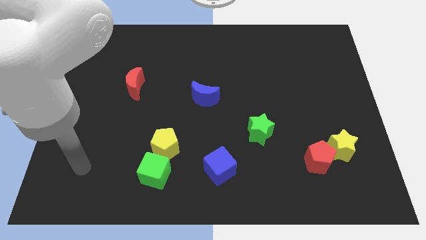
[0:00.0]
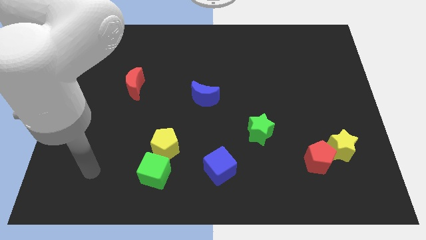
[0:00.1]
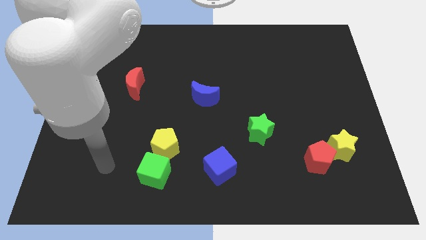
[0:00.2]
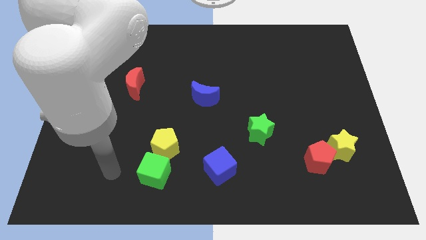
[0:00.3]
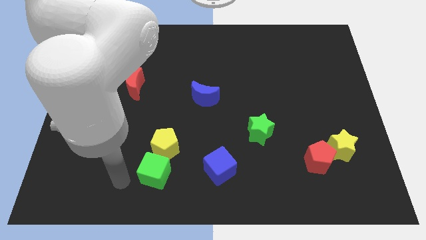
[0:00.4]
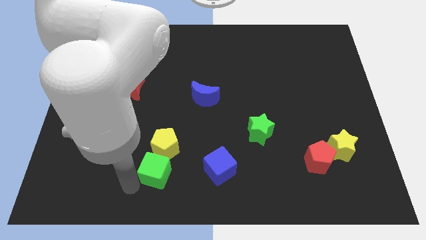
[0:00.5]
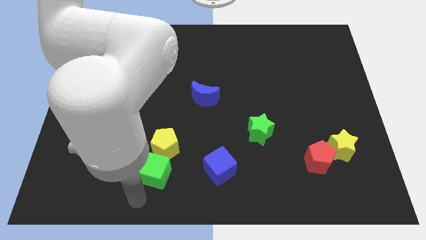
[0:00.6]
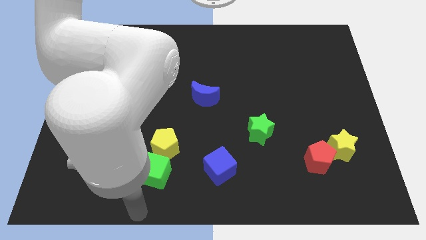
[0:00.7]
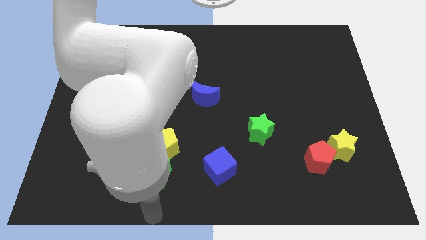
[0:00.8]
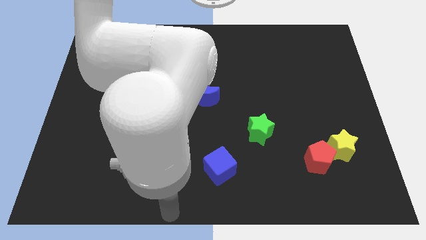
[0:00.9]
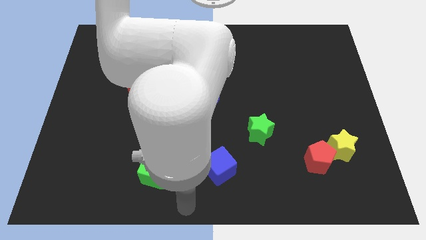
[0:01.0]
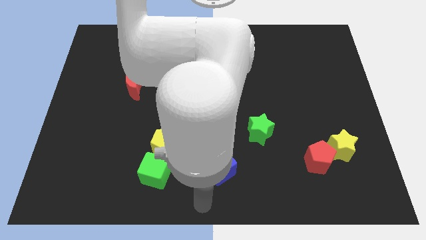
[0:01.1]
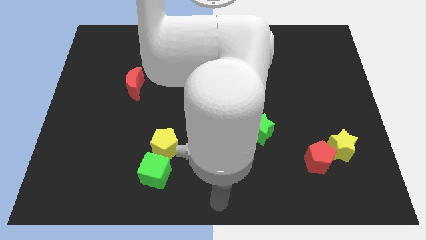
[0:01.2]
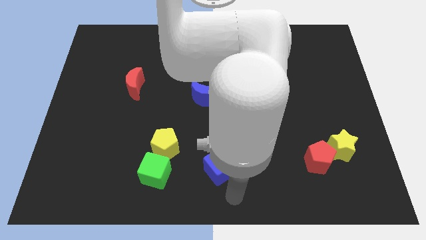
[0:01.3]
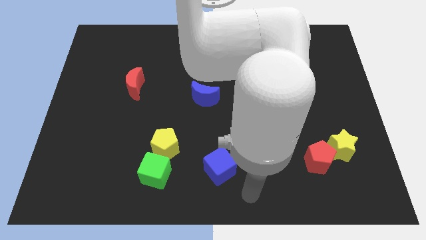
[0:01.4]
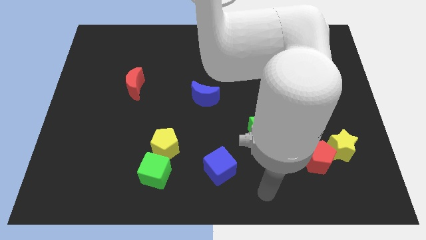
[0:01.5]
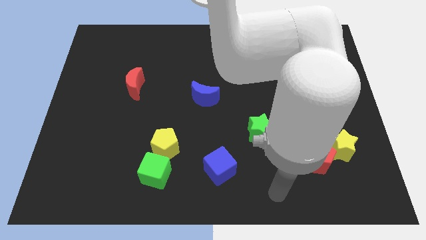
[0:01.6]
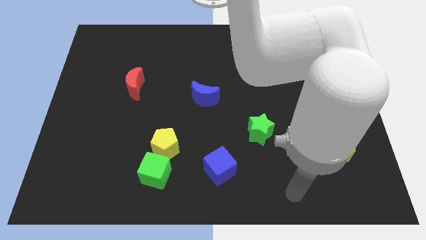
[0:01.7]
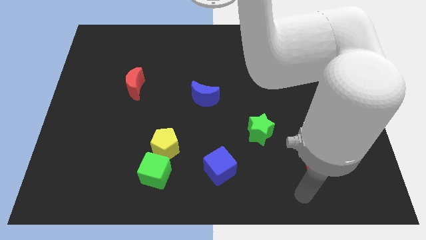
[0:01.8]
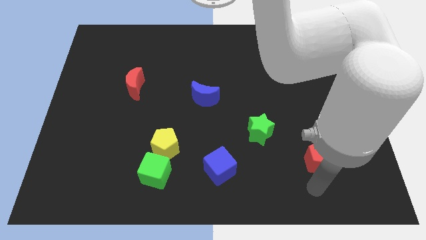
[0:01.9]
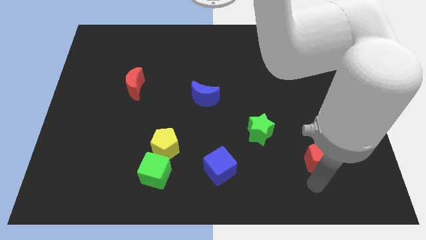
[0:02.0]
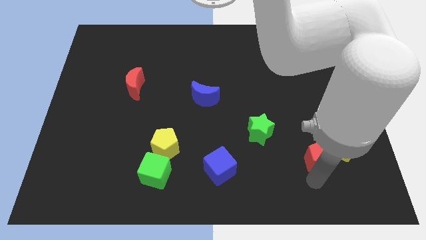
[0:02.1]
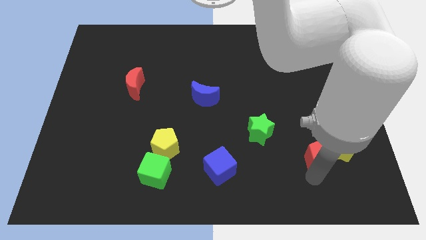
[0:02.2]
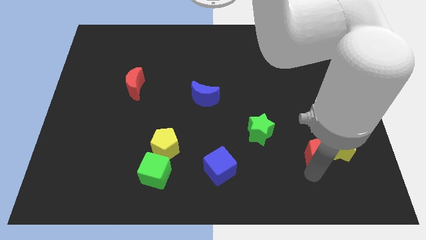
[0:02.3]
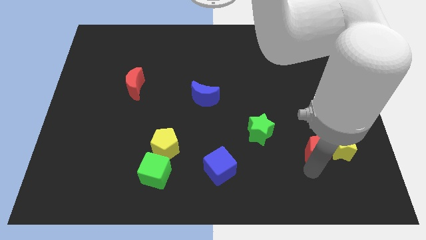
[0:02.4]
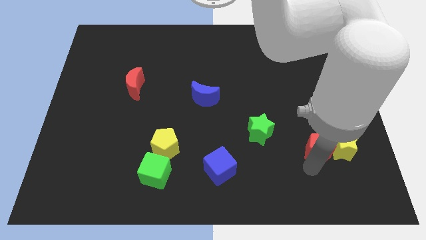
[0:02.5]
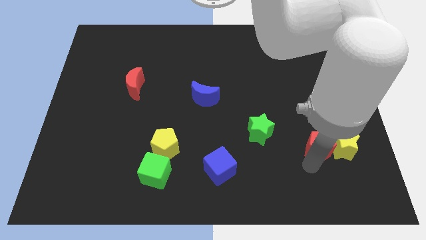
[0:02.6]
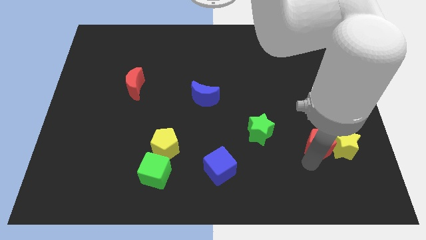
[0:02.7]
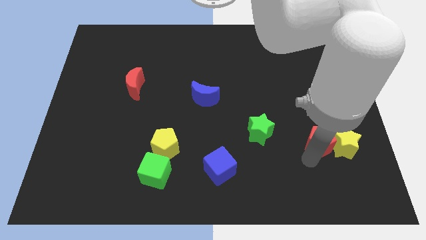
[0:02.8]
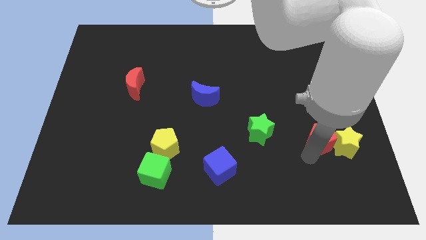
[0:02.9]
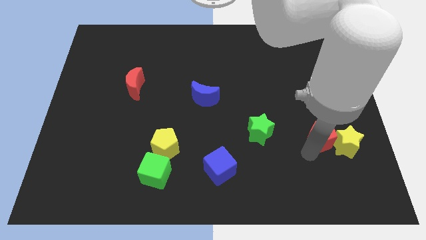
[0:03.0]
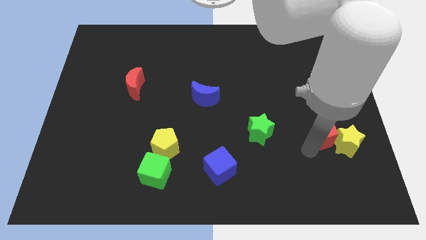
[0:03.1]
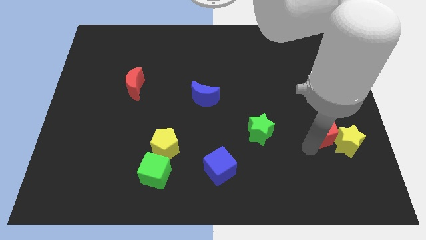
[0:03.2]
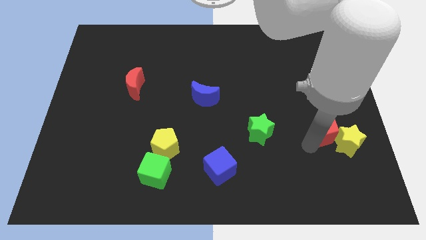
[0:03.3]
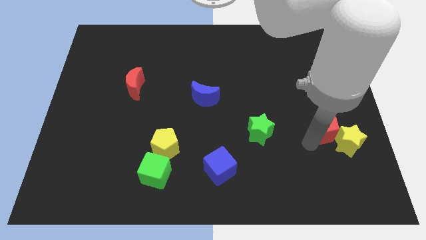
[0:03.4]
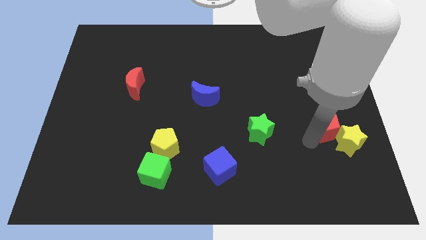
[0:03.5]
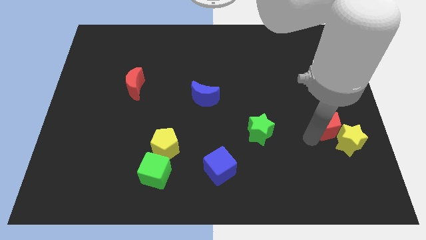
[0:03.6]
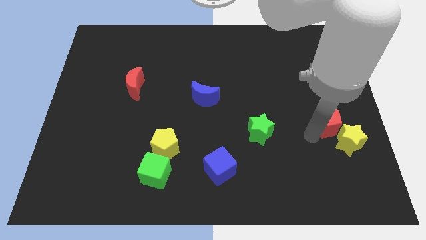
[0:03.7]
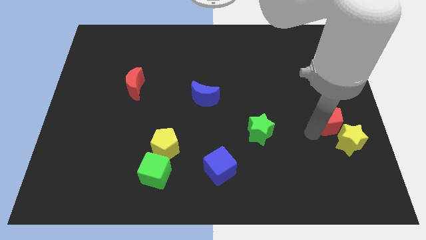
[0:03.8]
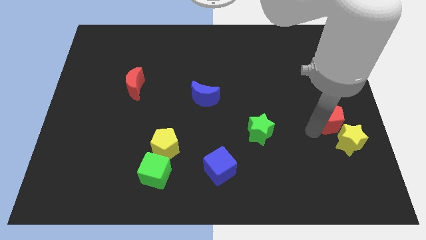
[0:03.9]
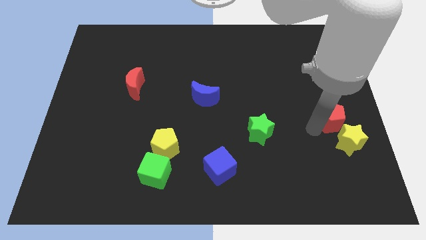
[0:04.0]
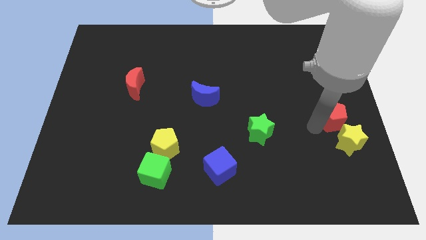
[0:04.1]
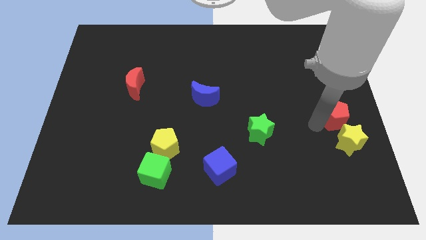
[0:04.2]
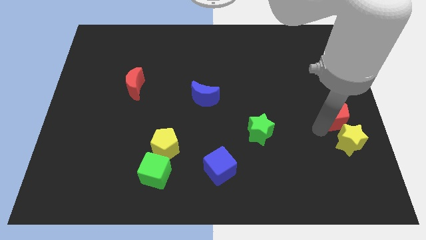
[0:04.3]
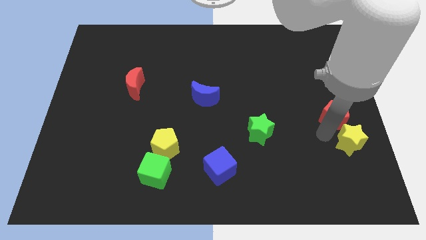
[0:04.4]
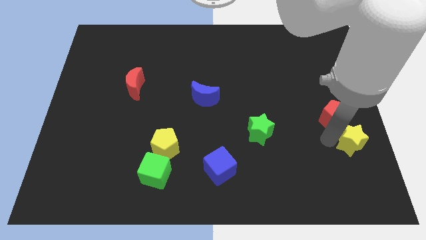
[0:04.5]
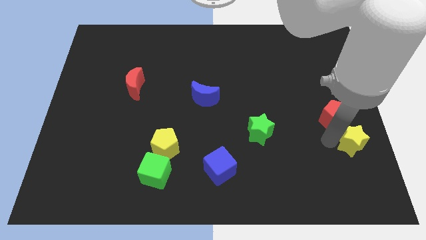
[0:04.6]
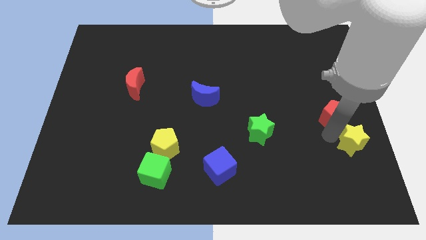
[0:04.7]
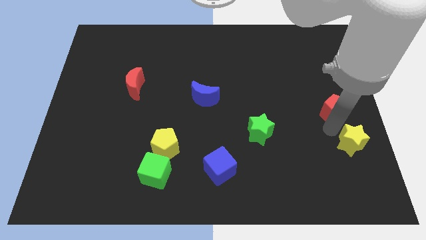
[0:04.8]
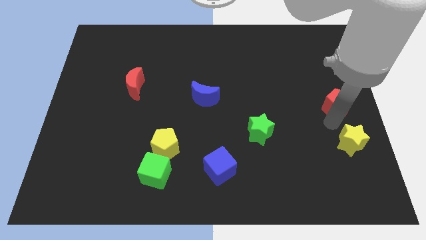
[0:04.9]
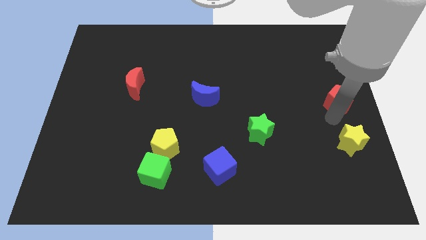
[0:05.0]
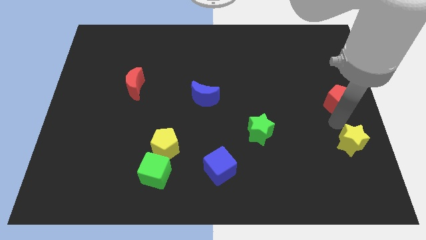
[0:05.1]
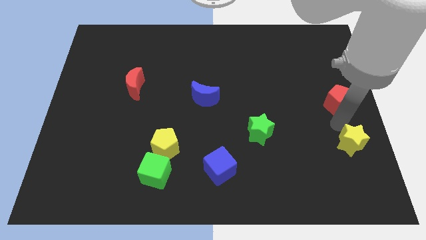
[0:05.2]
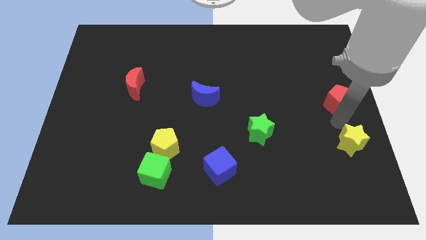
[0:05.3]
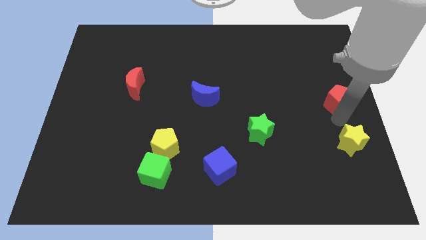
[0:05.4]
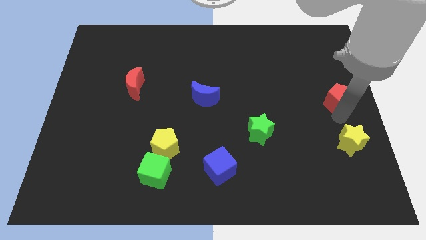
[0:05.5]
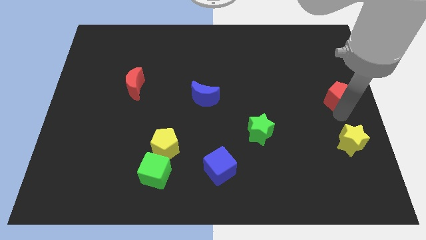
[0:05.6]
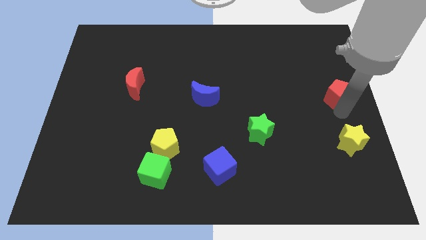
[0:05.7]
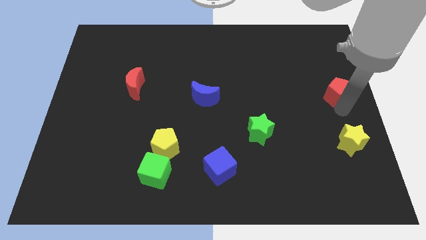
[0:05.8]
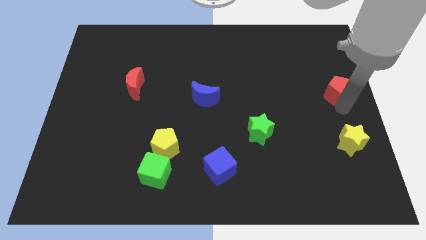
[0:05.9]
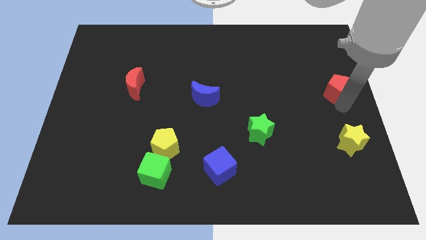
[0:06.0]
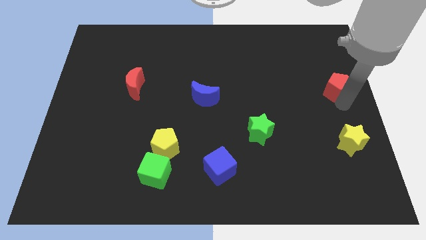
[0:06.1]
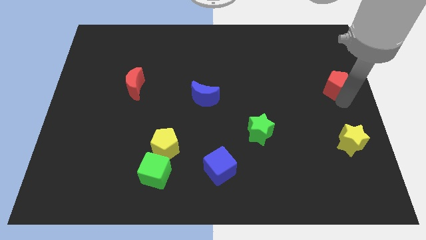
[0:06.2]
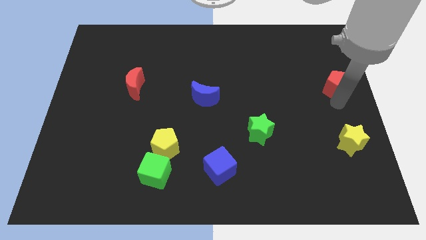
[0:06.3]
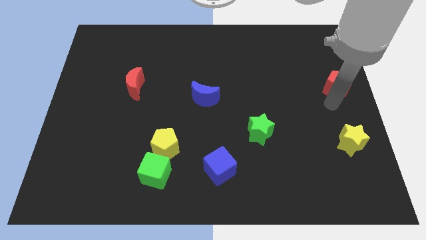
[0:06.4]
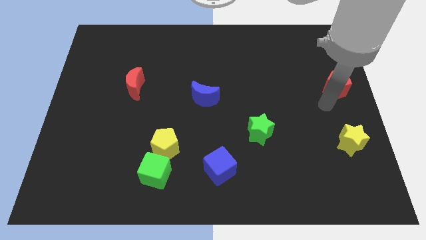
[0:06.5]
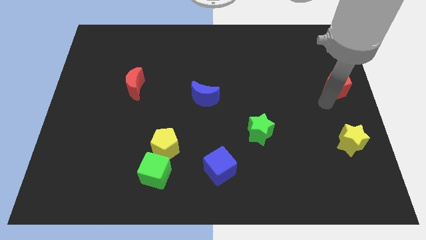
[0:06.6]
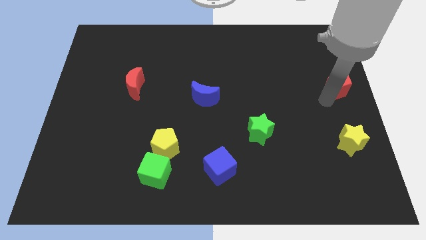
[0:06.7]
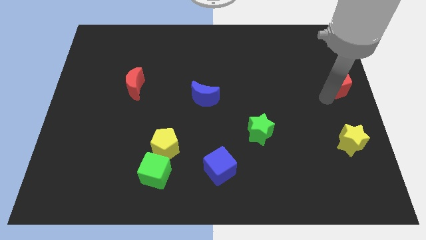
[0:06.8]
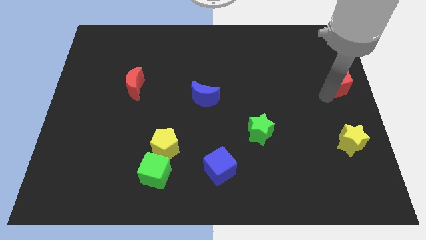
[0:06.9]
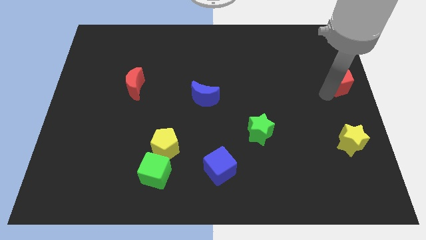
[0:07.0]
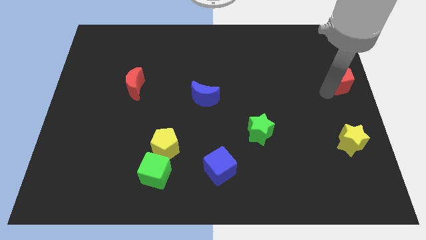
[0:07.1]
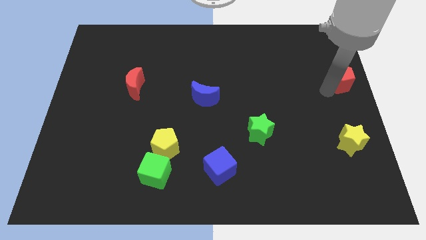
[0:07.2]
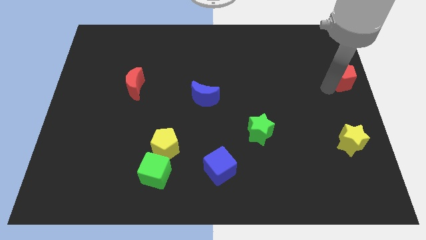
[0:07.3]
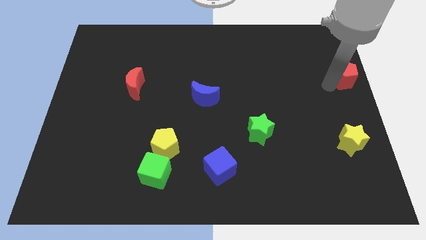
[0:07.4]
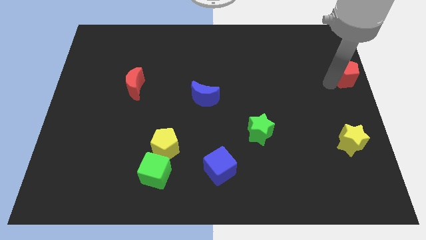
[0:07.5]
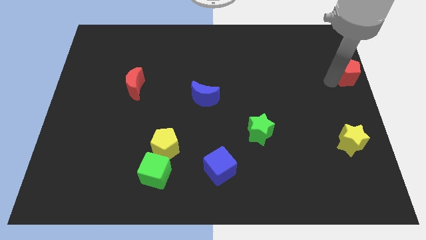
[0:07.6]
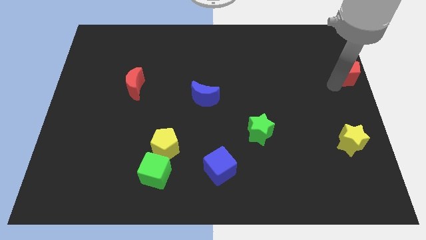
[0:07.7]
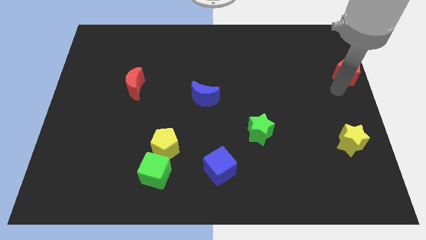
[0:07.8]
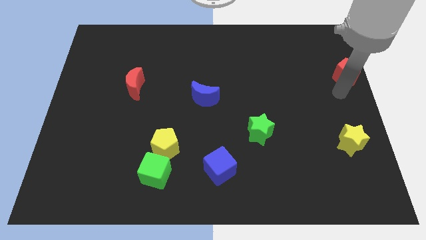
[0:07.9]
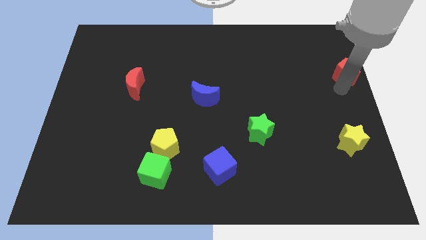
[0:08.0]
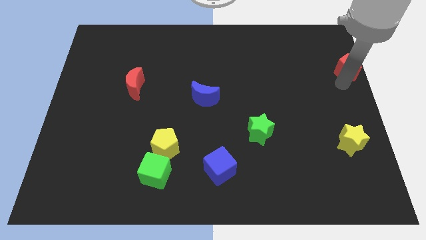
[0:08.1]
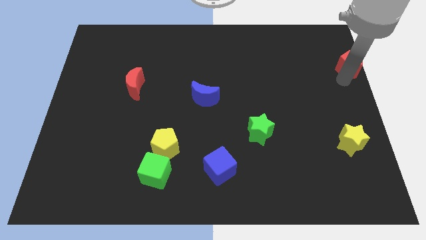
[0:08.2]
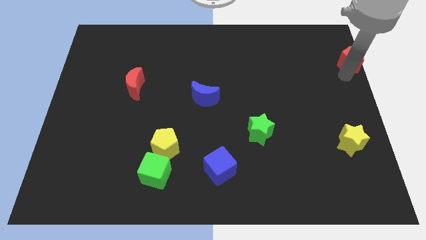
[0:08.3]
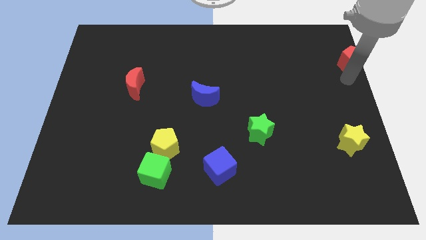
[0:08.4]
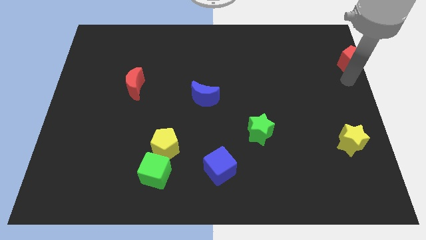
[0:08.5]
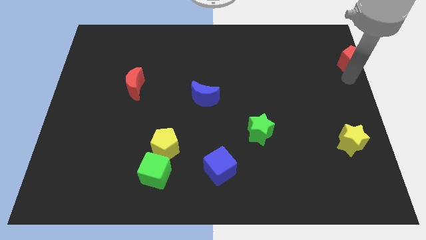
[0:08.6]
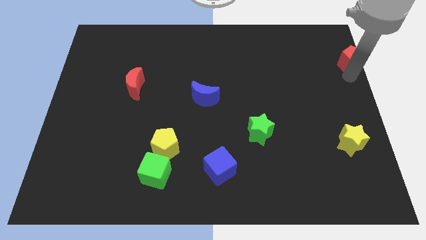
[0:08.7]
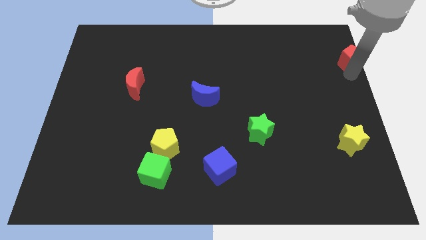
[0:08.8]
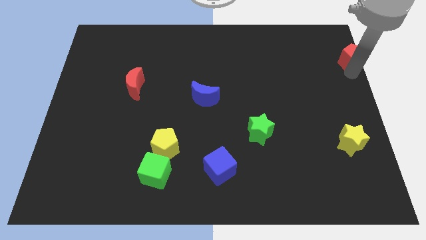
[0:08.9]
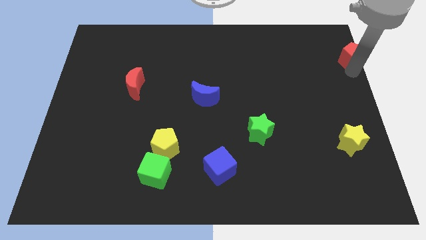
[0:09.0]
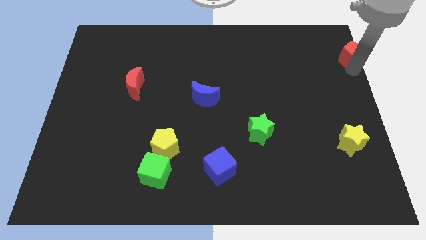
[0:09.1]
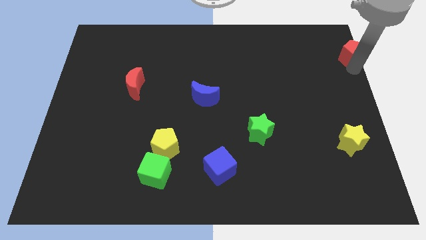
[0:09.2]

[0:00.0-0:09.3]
push the red pentagon to the upper right corner
